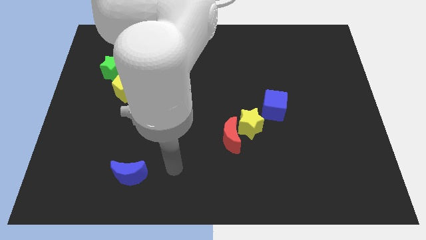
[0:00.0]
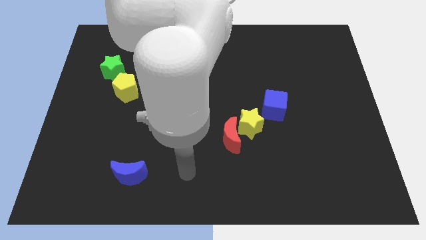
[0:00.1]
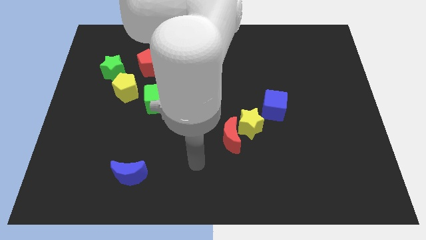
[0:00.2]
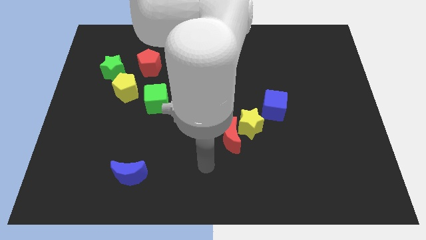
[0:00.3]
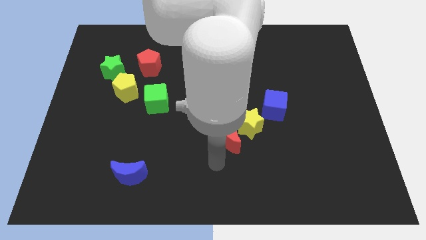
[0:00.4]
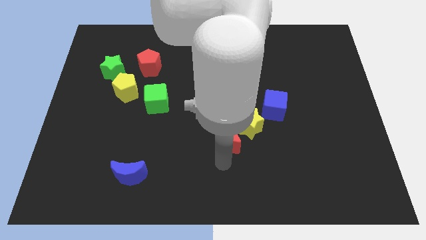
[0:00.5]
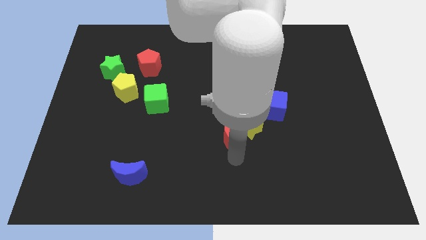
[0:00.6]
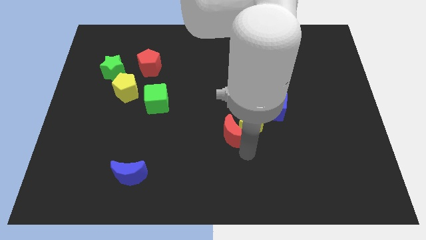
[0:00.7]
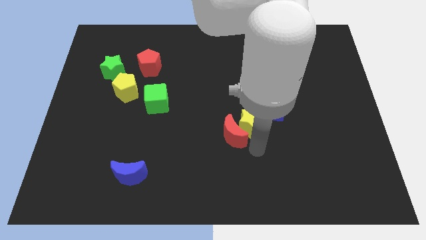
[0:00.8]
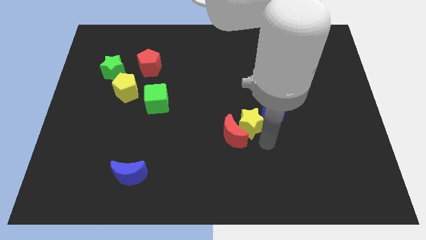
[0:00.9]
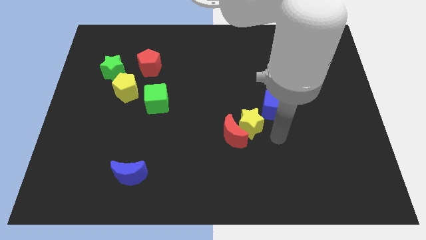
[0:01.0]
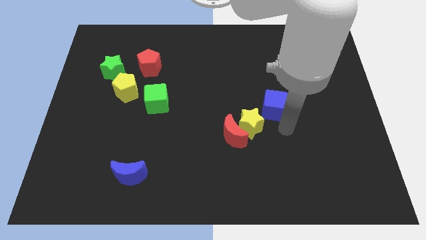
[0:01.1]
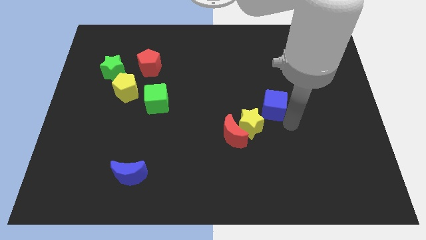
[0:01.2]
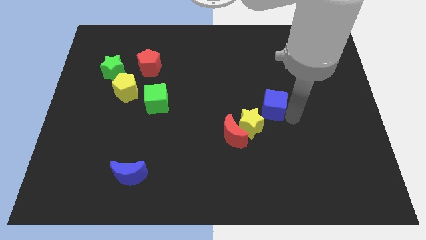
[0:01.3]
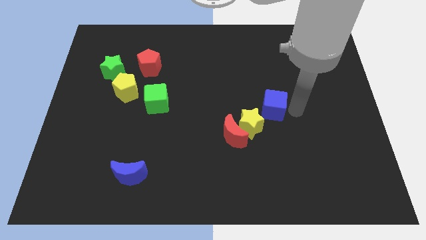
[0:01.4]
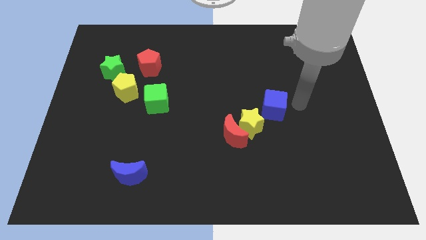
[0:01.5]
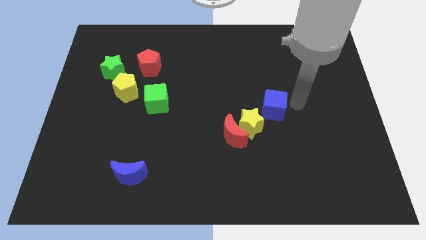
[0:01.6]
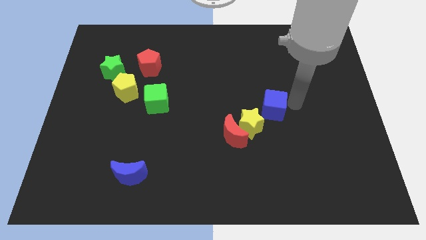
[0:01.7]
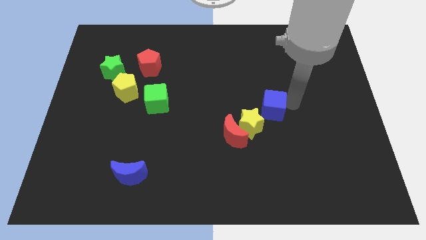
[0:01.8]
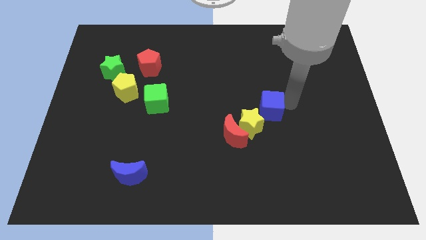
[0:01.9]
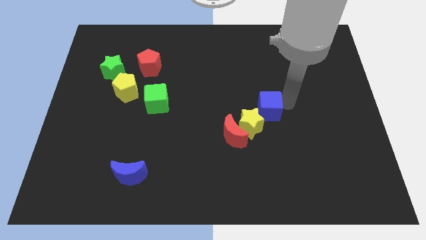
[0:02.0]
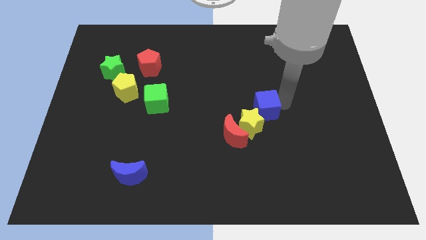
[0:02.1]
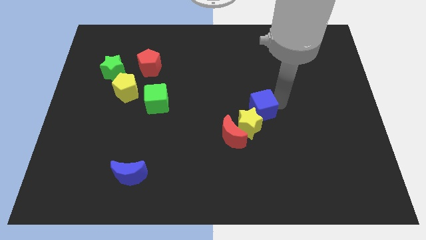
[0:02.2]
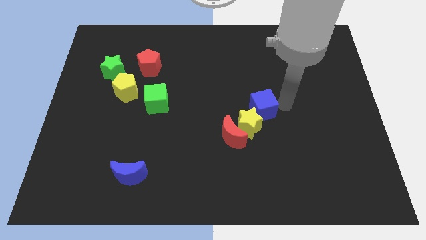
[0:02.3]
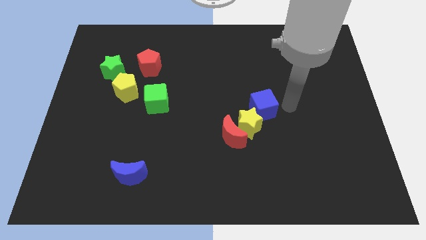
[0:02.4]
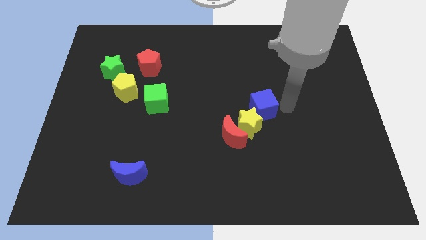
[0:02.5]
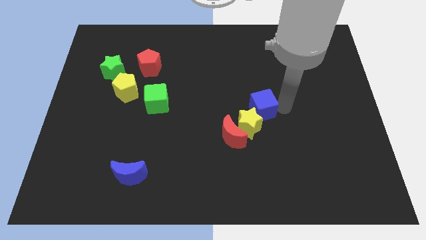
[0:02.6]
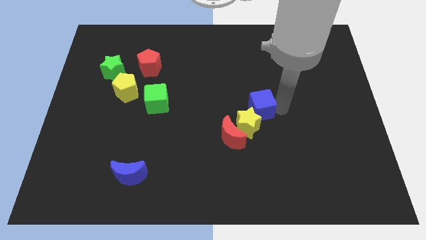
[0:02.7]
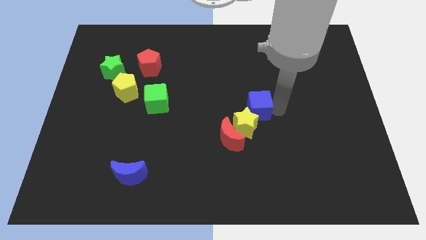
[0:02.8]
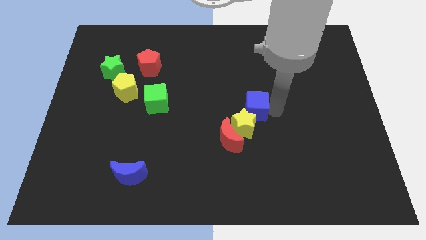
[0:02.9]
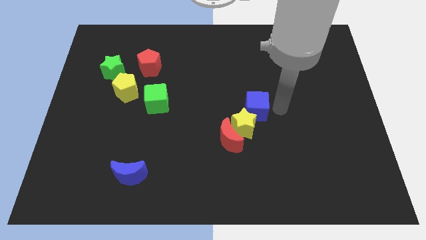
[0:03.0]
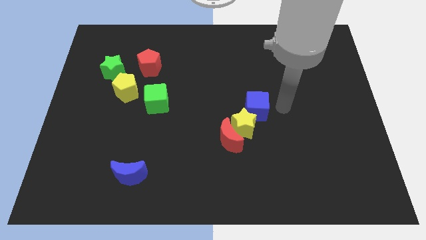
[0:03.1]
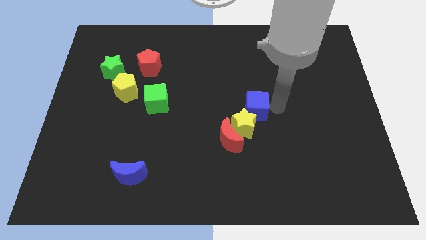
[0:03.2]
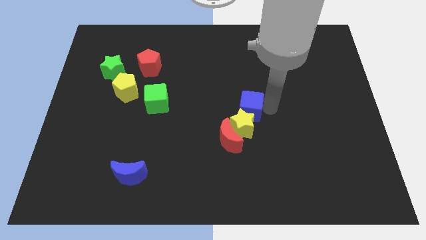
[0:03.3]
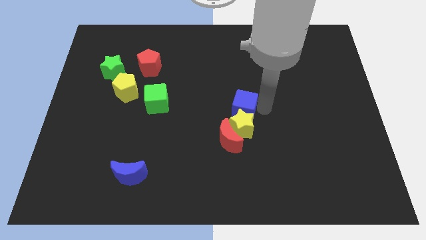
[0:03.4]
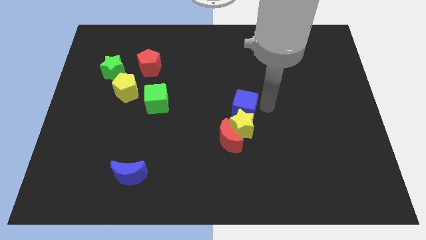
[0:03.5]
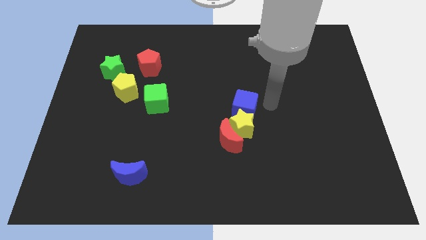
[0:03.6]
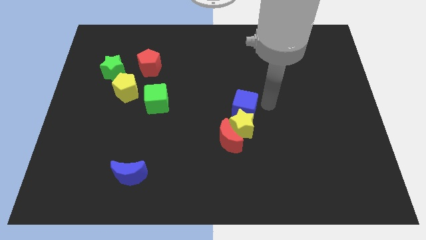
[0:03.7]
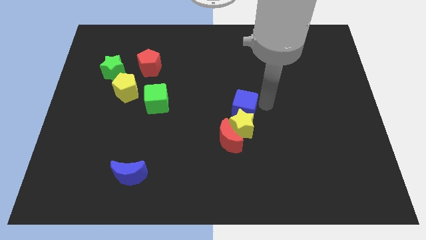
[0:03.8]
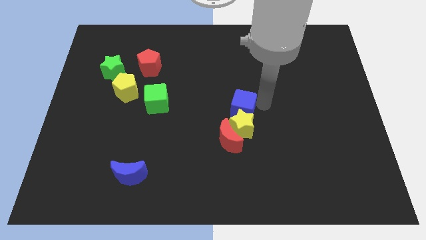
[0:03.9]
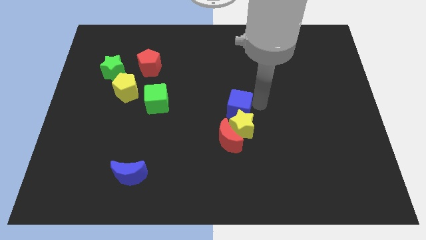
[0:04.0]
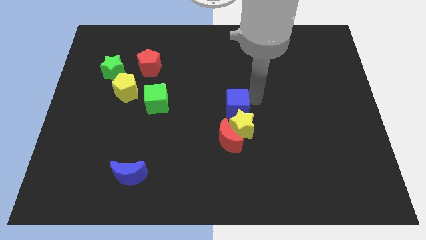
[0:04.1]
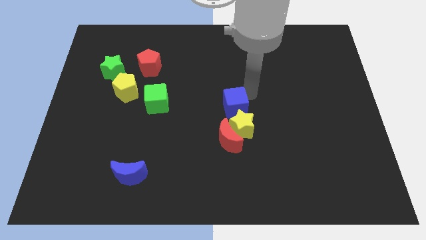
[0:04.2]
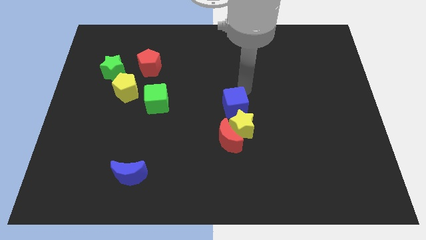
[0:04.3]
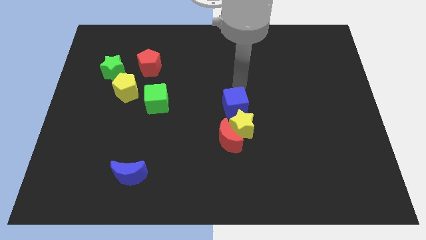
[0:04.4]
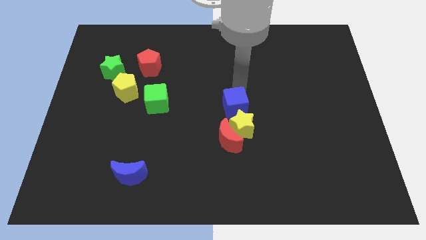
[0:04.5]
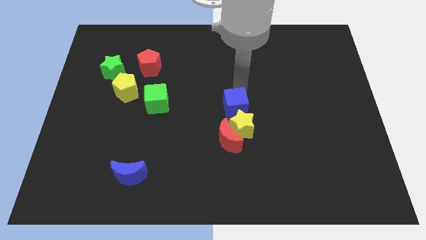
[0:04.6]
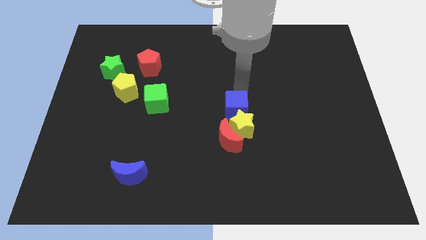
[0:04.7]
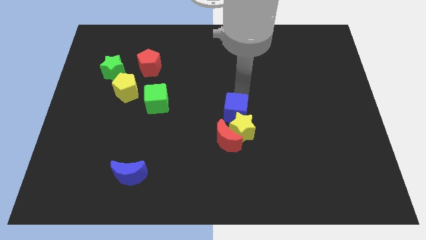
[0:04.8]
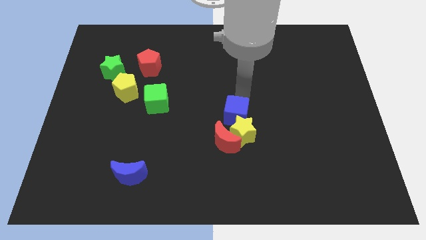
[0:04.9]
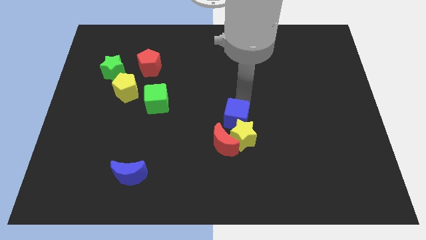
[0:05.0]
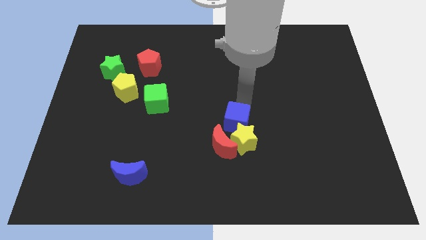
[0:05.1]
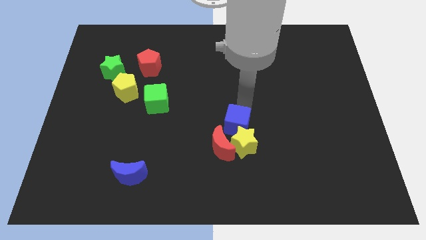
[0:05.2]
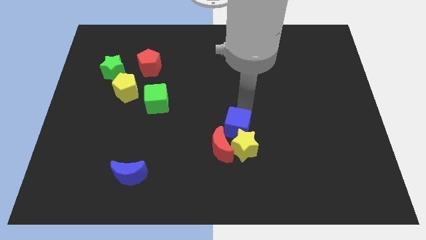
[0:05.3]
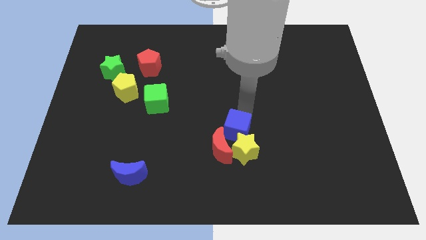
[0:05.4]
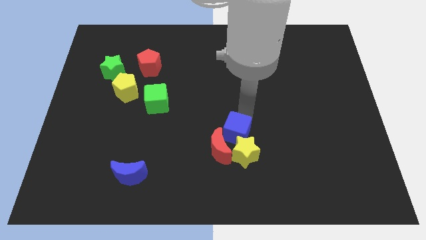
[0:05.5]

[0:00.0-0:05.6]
slide the blue cube next to the red moon

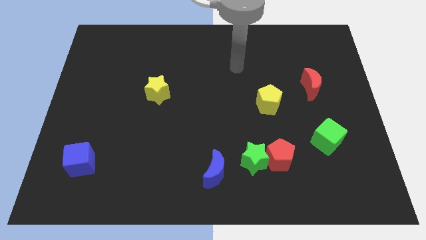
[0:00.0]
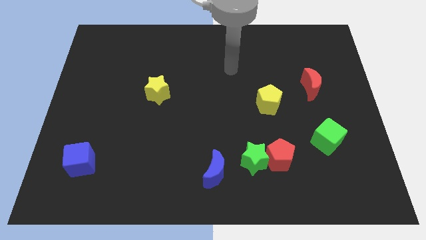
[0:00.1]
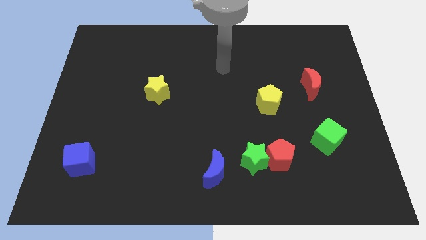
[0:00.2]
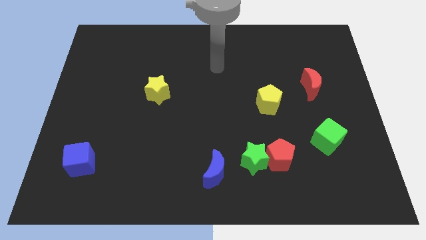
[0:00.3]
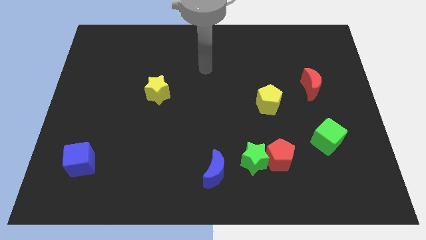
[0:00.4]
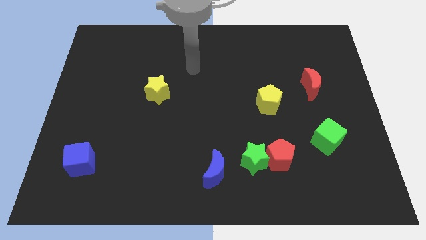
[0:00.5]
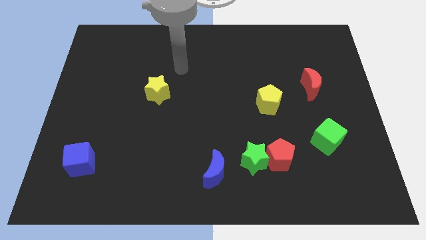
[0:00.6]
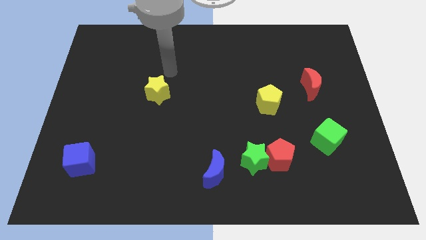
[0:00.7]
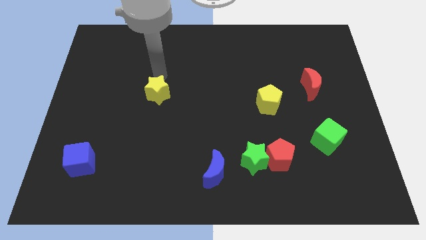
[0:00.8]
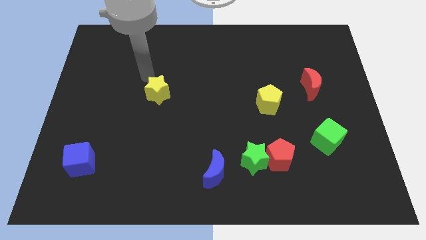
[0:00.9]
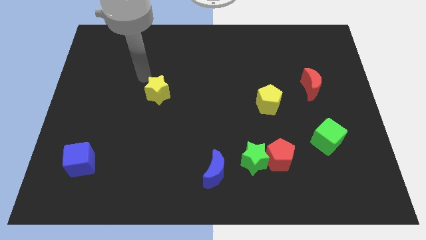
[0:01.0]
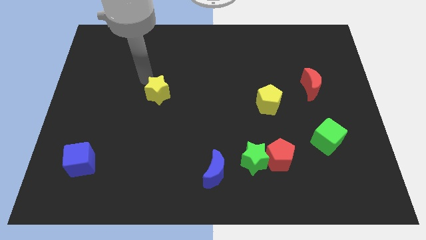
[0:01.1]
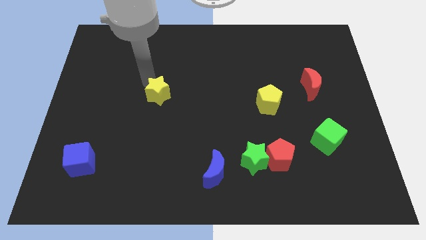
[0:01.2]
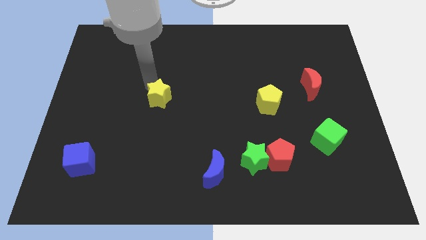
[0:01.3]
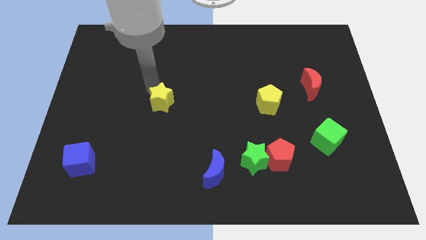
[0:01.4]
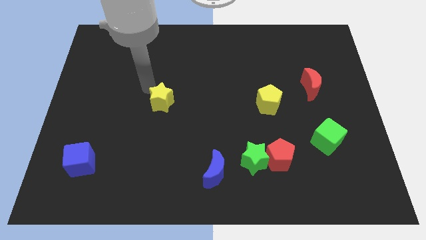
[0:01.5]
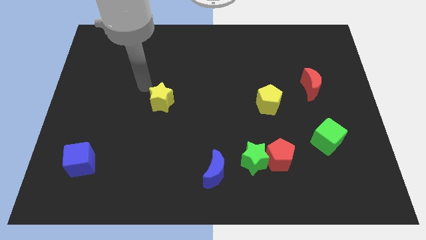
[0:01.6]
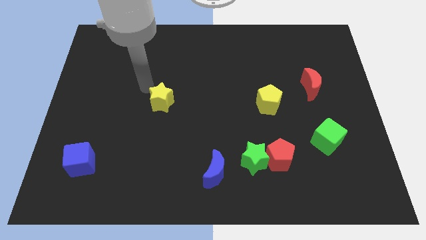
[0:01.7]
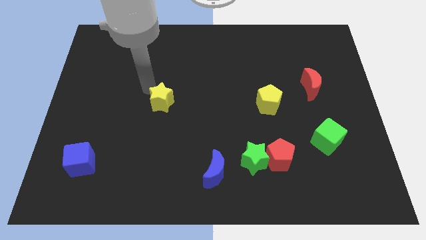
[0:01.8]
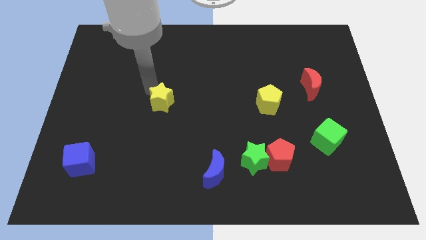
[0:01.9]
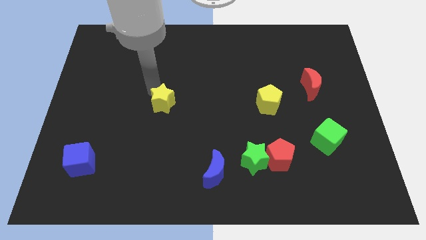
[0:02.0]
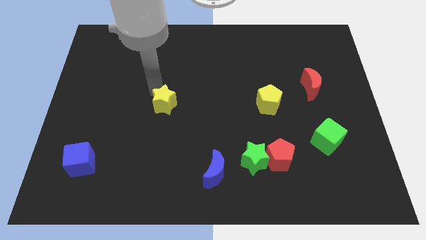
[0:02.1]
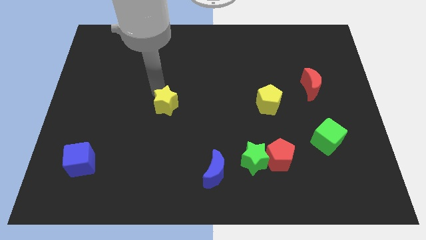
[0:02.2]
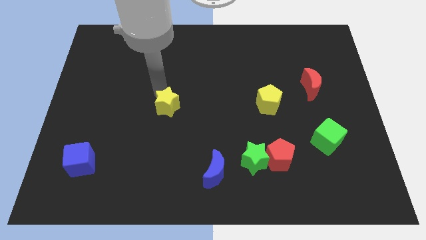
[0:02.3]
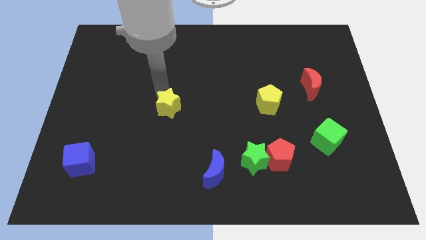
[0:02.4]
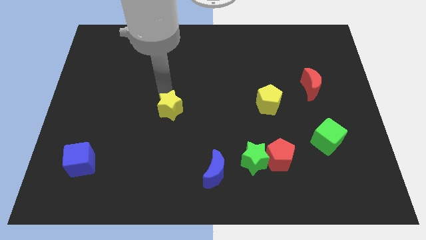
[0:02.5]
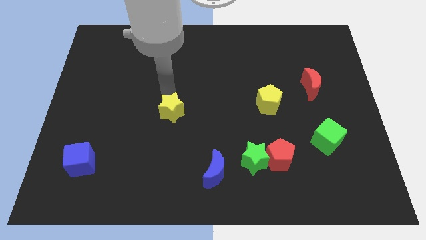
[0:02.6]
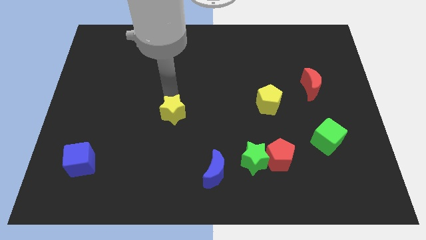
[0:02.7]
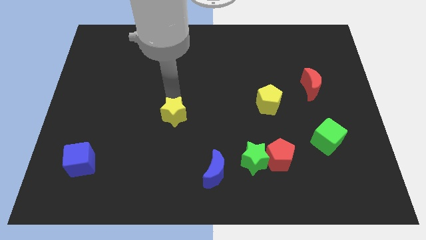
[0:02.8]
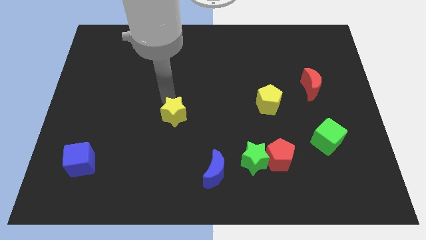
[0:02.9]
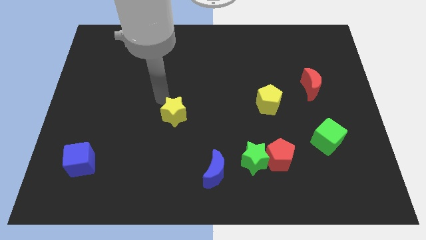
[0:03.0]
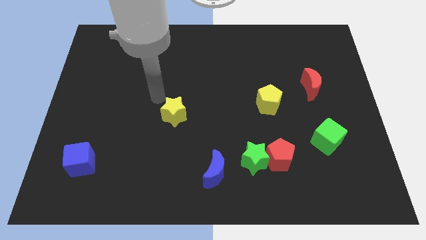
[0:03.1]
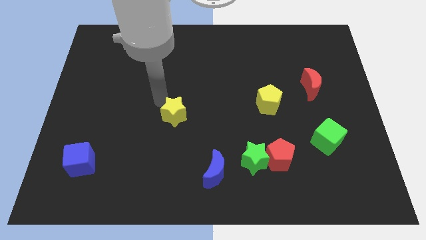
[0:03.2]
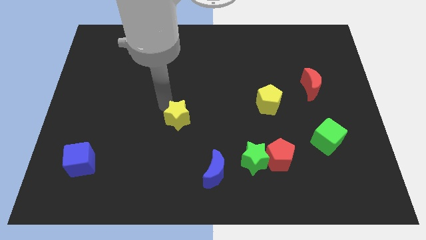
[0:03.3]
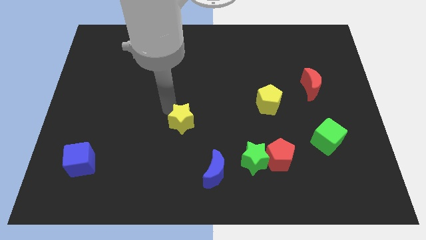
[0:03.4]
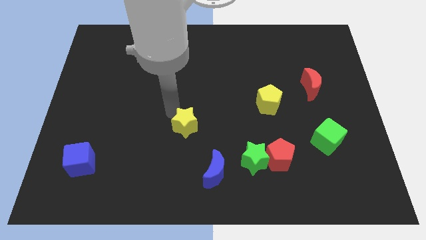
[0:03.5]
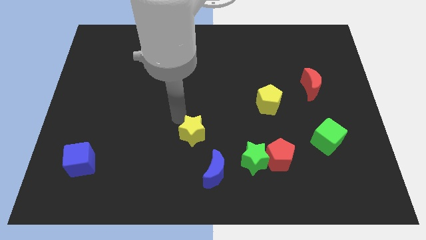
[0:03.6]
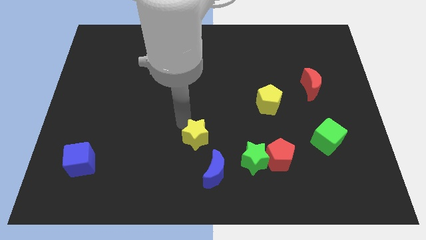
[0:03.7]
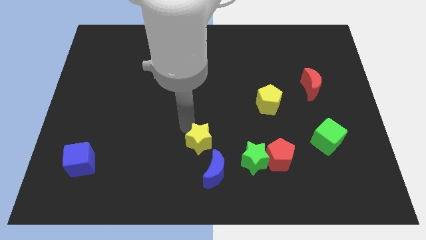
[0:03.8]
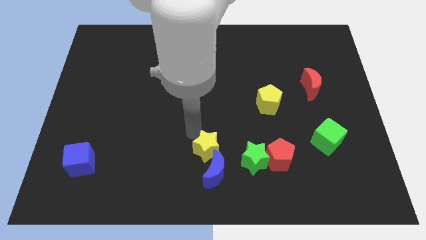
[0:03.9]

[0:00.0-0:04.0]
put the yellow star next to the blue moon
